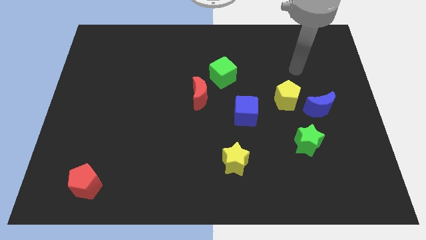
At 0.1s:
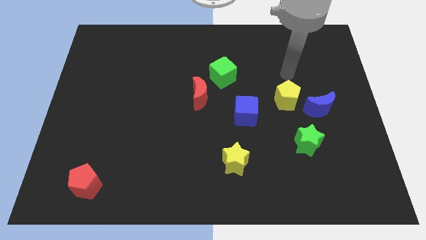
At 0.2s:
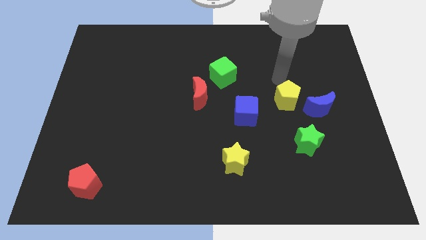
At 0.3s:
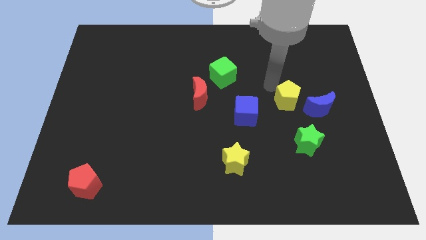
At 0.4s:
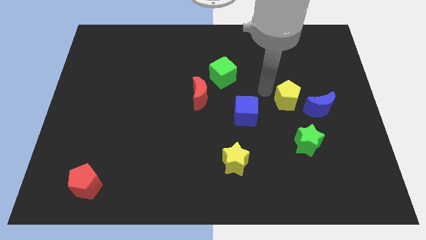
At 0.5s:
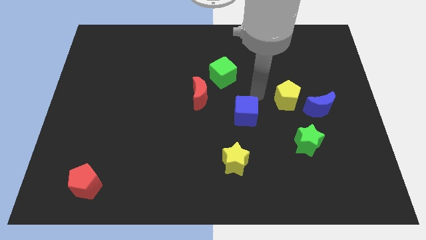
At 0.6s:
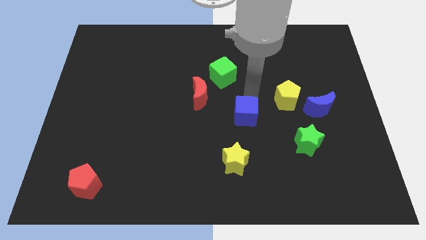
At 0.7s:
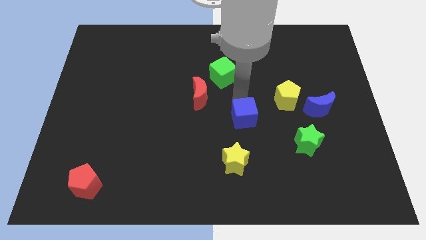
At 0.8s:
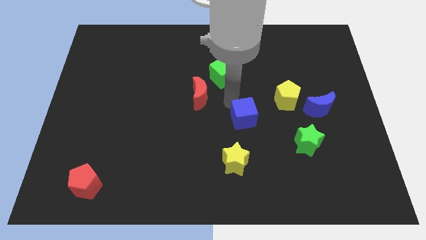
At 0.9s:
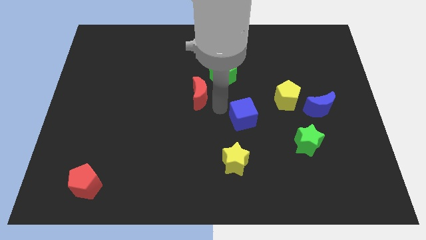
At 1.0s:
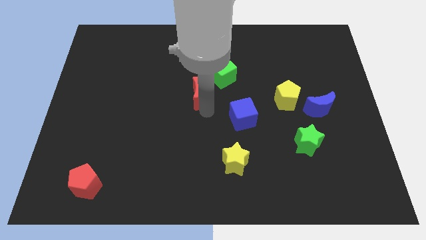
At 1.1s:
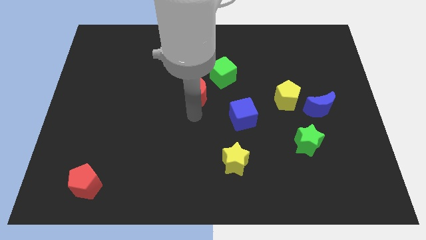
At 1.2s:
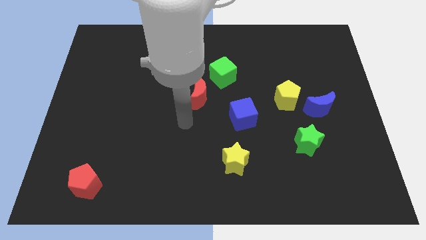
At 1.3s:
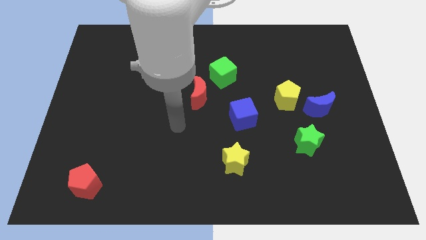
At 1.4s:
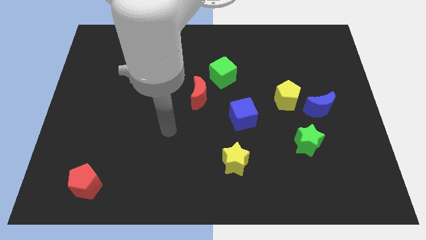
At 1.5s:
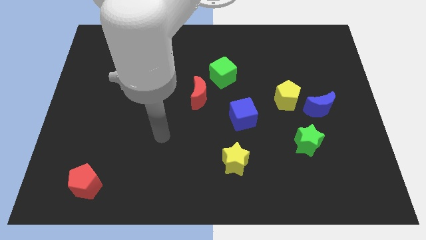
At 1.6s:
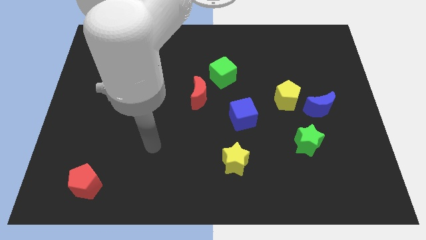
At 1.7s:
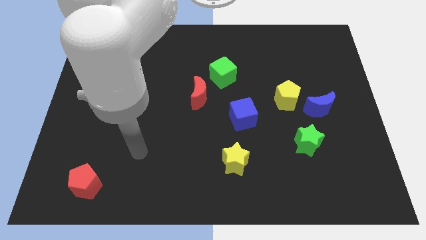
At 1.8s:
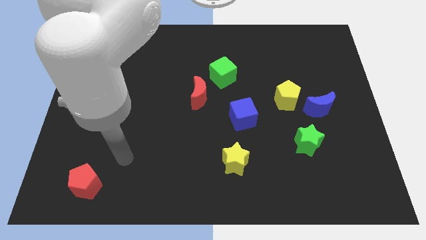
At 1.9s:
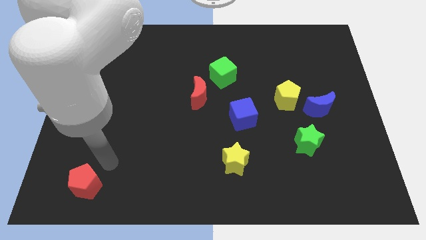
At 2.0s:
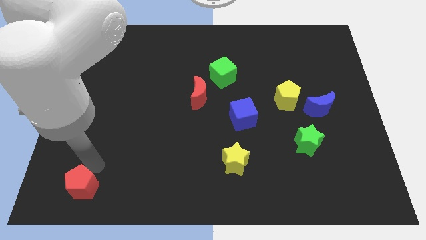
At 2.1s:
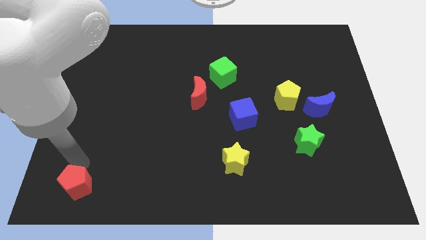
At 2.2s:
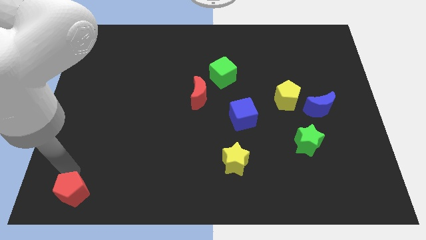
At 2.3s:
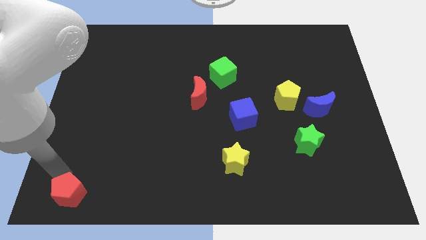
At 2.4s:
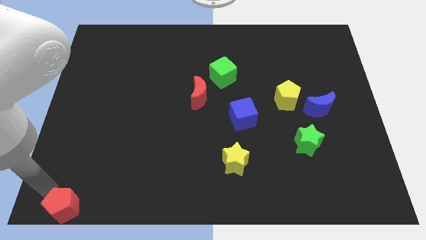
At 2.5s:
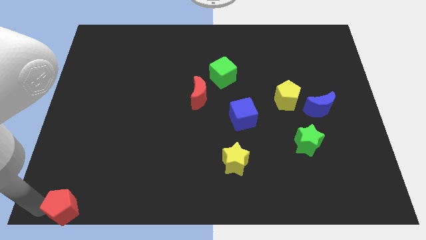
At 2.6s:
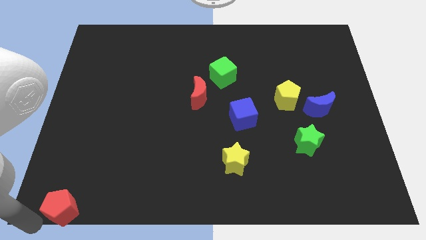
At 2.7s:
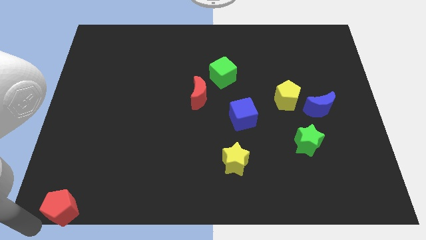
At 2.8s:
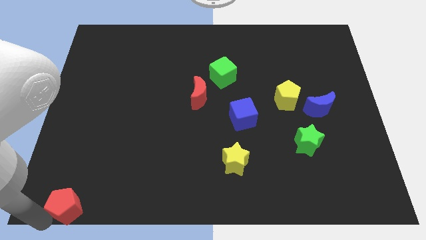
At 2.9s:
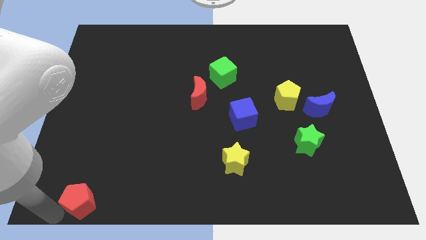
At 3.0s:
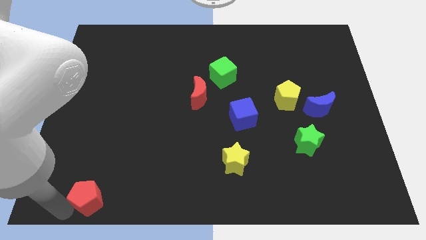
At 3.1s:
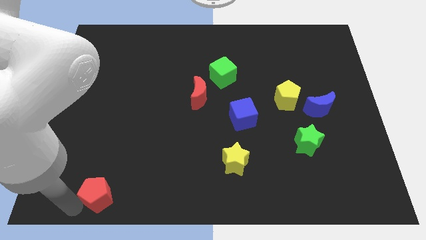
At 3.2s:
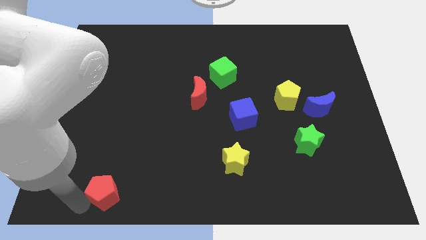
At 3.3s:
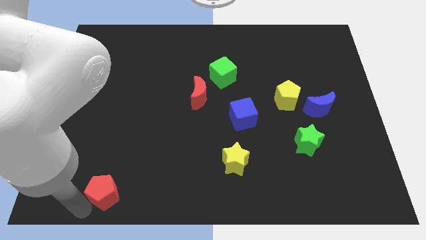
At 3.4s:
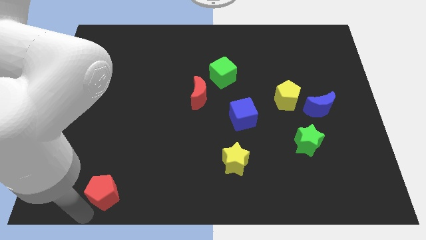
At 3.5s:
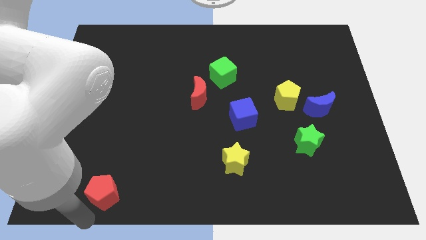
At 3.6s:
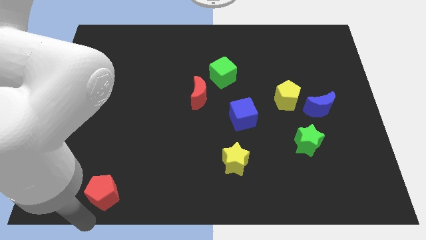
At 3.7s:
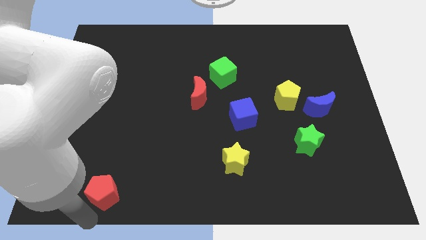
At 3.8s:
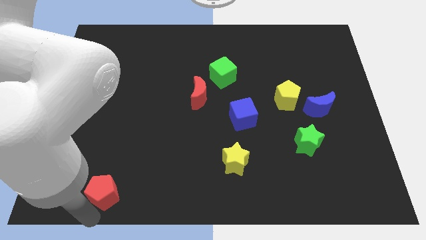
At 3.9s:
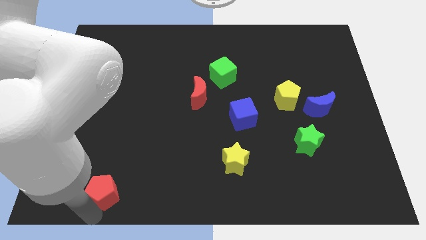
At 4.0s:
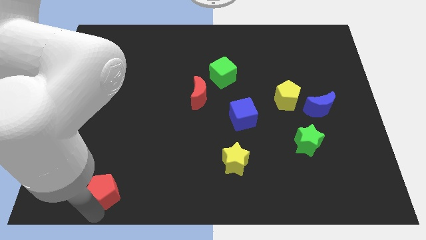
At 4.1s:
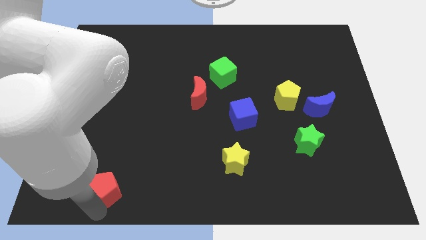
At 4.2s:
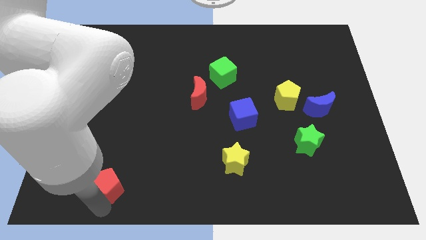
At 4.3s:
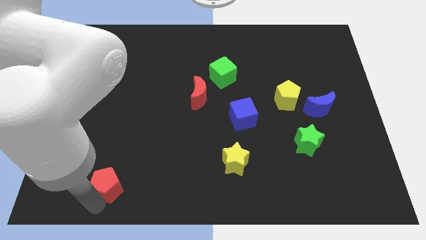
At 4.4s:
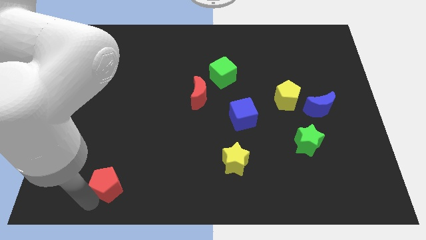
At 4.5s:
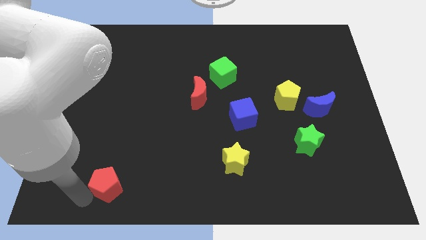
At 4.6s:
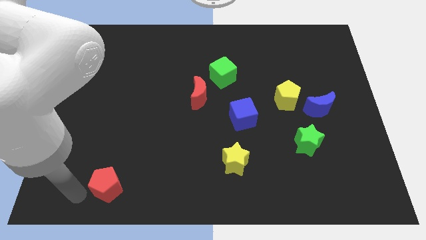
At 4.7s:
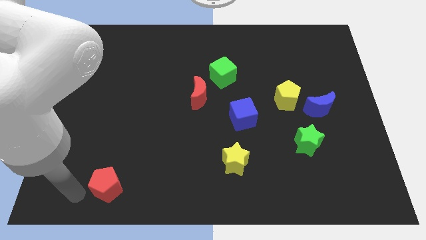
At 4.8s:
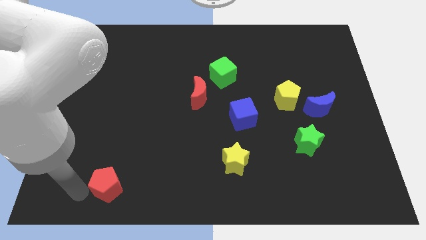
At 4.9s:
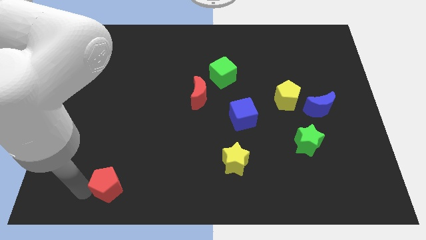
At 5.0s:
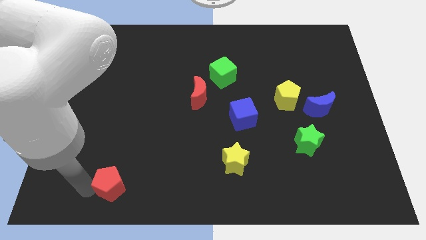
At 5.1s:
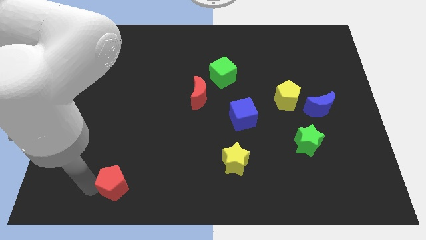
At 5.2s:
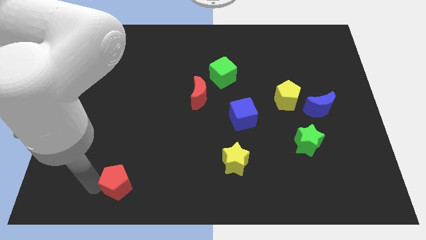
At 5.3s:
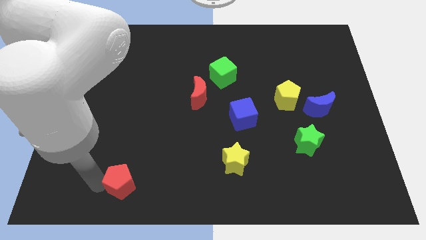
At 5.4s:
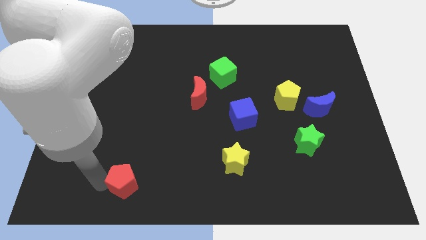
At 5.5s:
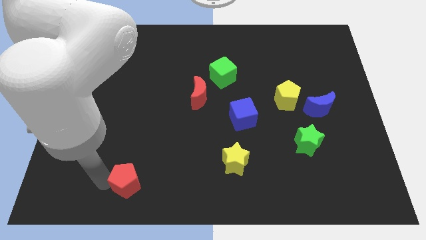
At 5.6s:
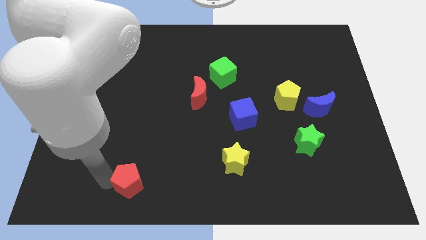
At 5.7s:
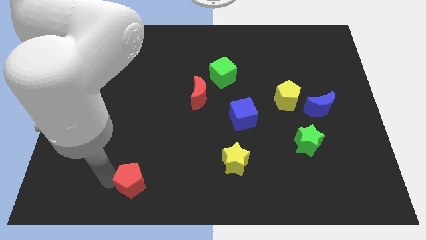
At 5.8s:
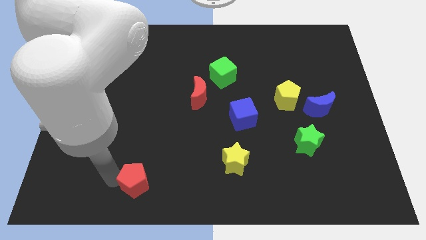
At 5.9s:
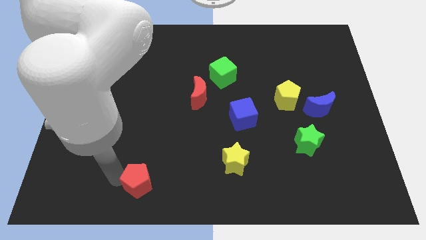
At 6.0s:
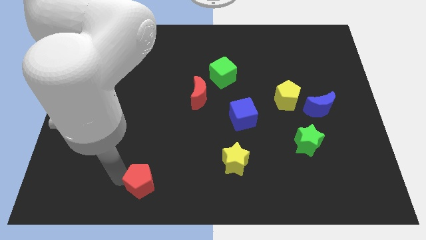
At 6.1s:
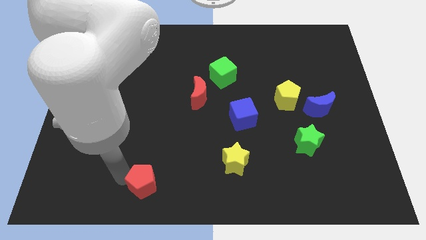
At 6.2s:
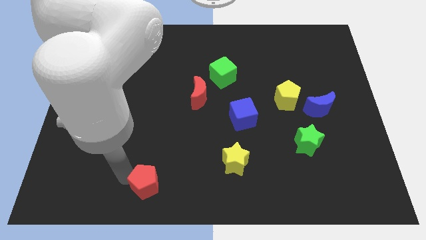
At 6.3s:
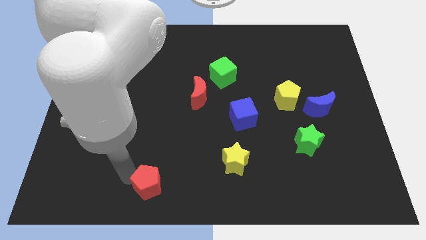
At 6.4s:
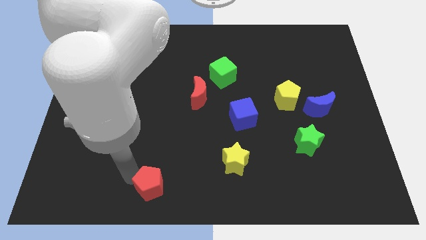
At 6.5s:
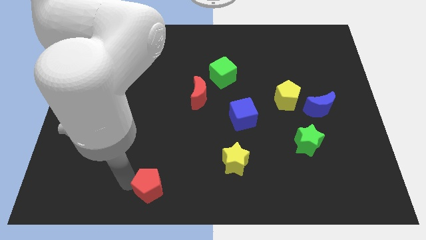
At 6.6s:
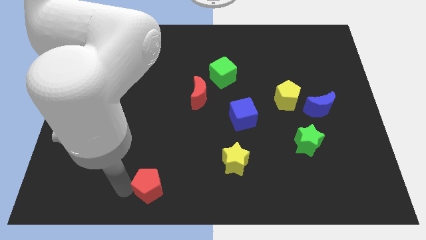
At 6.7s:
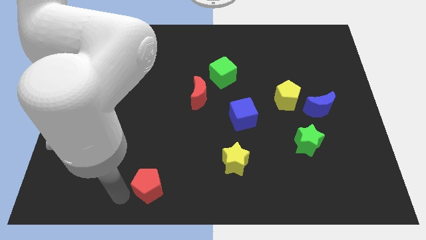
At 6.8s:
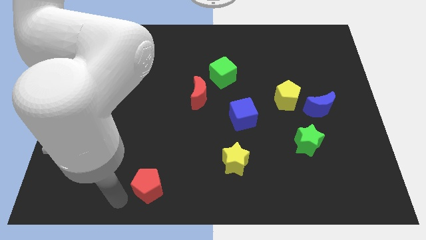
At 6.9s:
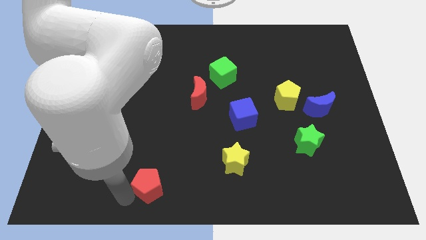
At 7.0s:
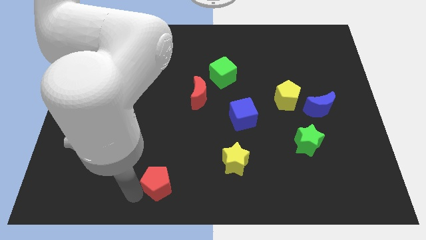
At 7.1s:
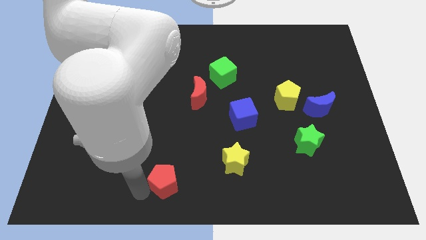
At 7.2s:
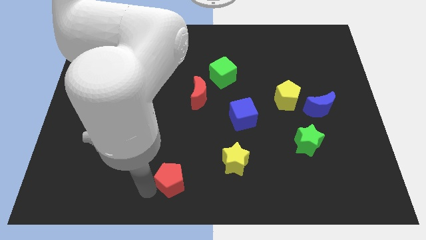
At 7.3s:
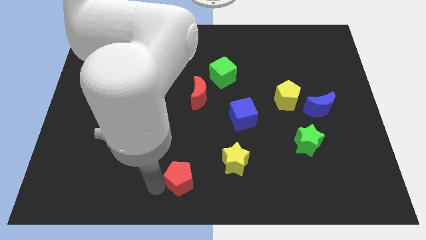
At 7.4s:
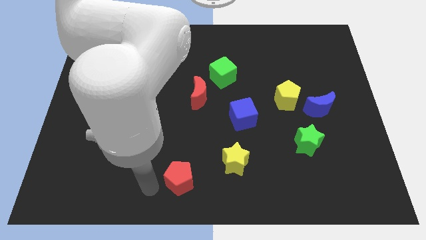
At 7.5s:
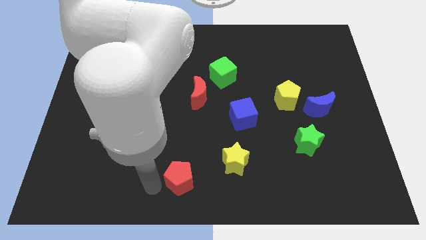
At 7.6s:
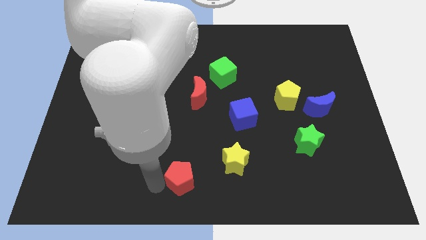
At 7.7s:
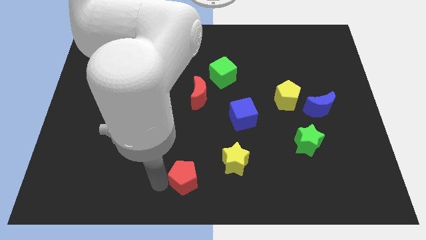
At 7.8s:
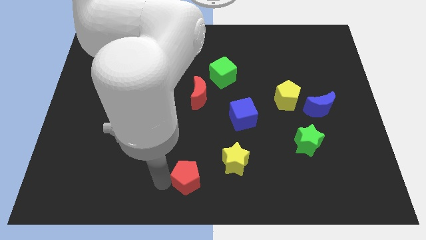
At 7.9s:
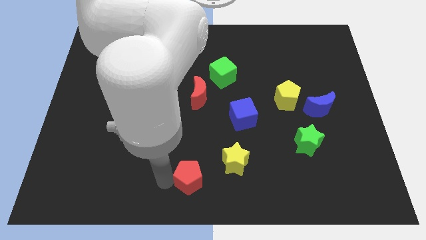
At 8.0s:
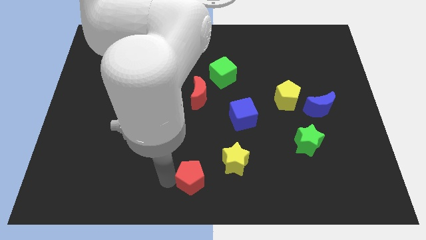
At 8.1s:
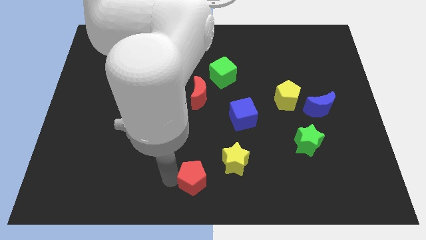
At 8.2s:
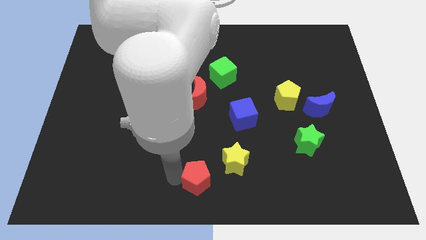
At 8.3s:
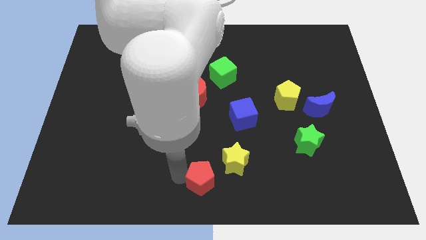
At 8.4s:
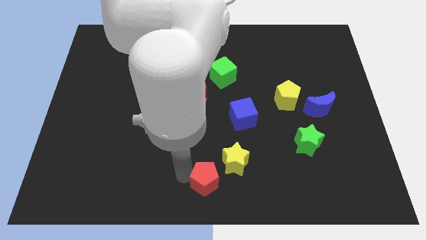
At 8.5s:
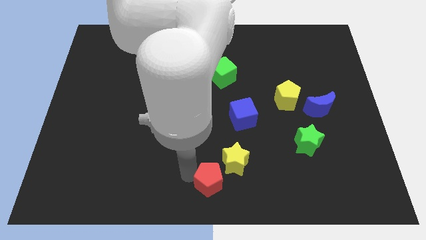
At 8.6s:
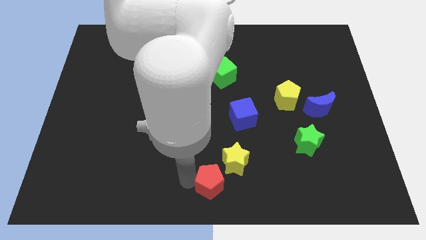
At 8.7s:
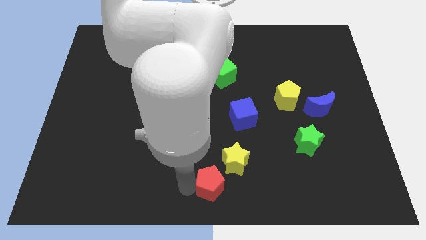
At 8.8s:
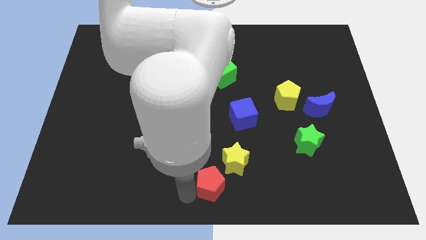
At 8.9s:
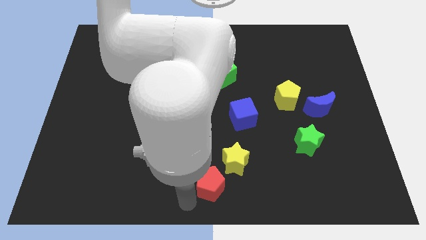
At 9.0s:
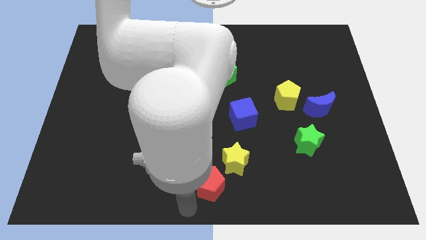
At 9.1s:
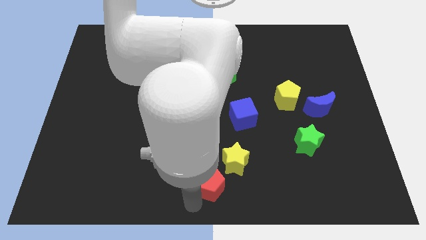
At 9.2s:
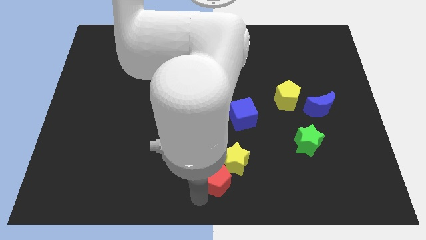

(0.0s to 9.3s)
push the red pentagon towards the yellow star
